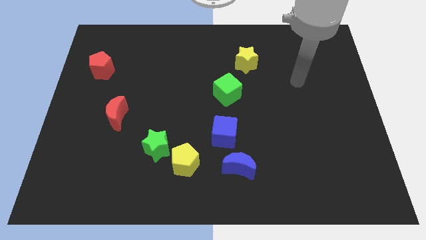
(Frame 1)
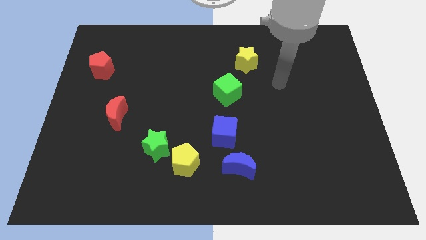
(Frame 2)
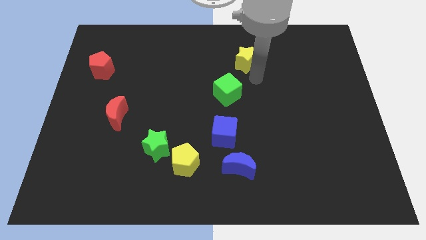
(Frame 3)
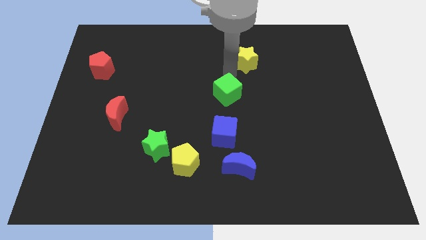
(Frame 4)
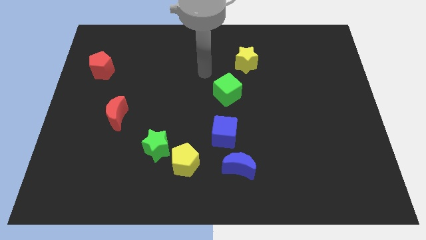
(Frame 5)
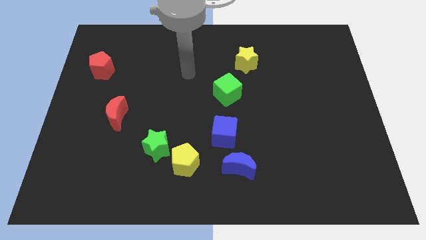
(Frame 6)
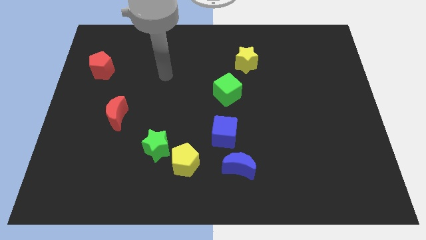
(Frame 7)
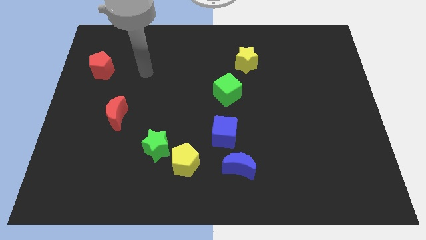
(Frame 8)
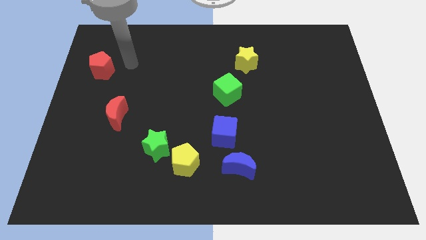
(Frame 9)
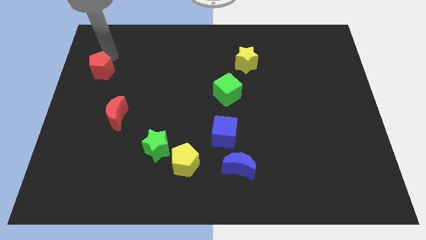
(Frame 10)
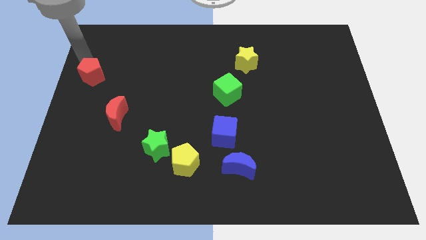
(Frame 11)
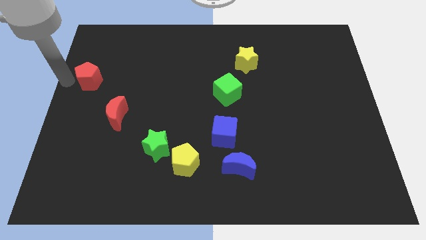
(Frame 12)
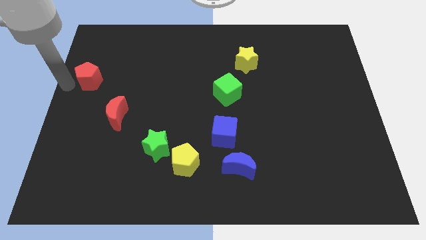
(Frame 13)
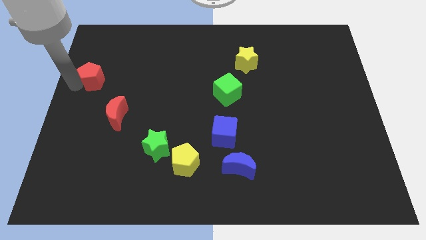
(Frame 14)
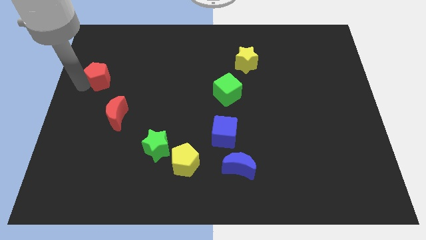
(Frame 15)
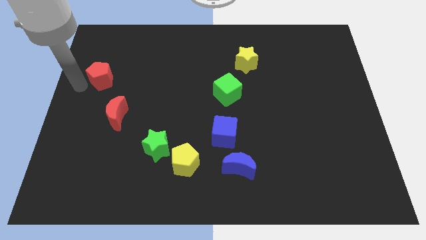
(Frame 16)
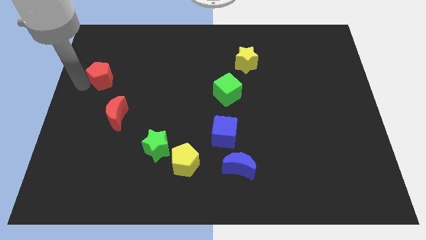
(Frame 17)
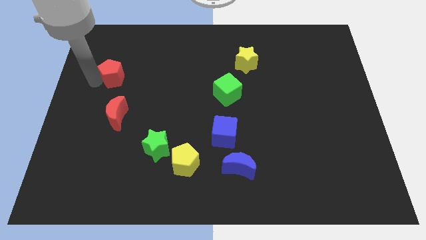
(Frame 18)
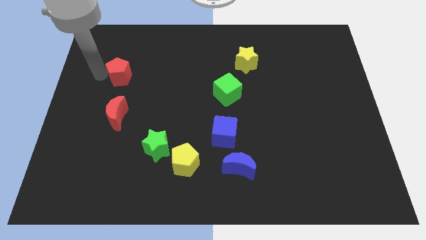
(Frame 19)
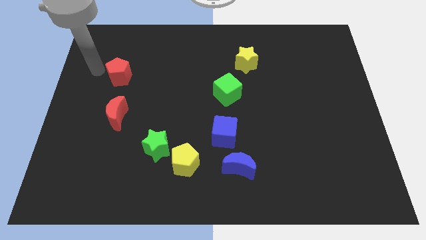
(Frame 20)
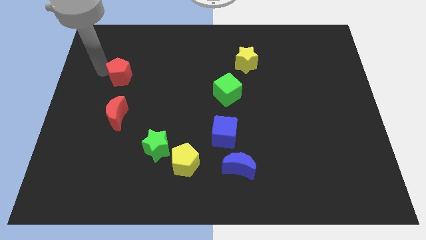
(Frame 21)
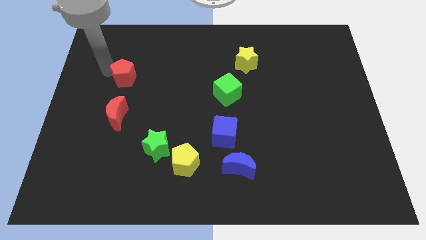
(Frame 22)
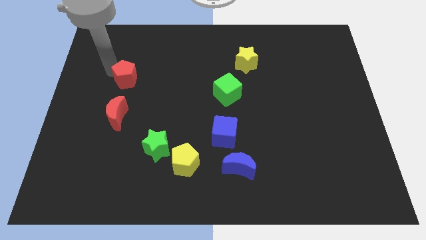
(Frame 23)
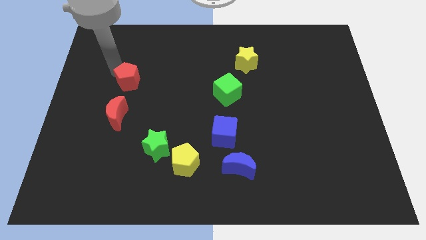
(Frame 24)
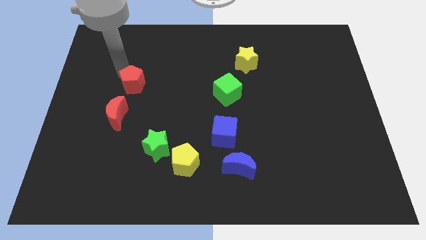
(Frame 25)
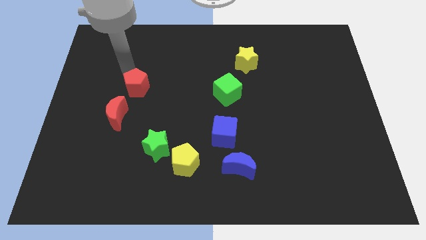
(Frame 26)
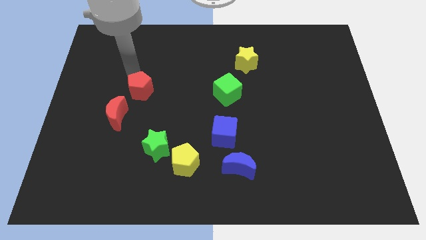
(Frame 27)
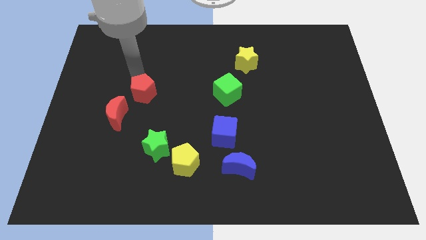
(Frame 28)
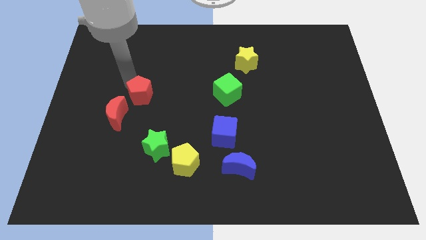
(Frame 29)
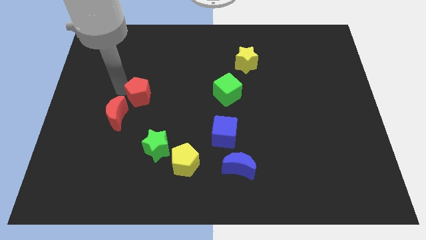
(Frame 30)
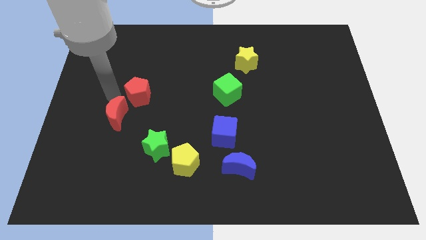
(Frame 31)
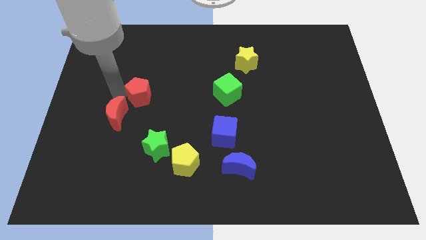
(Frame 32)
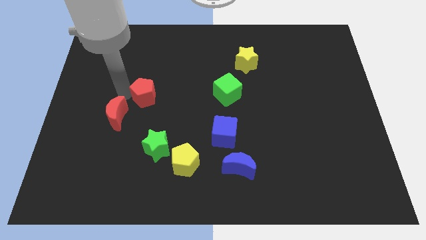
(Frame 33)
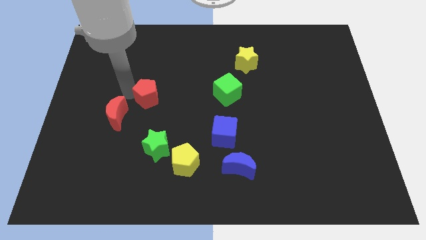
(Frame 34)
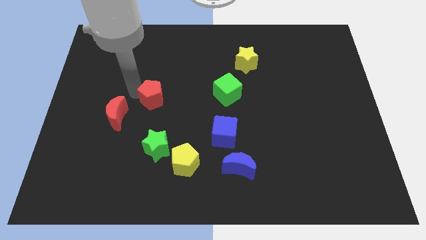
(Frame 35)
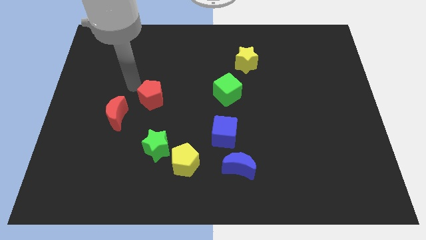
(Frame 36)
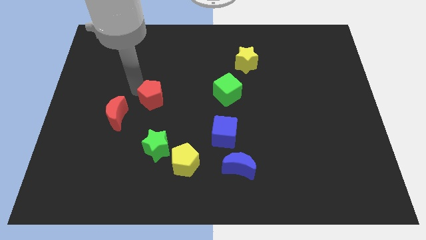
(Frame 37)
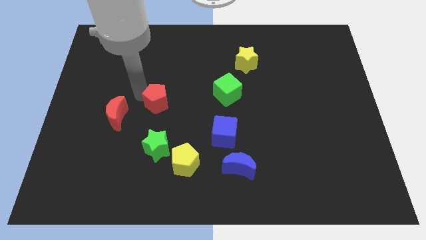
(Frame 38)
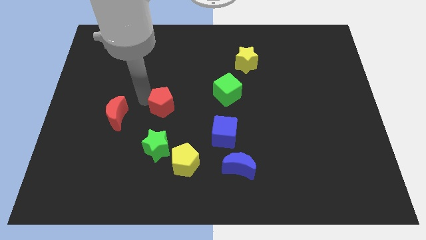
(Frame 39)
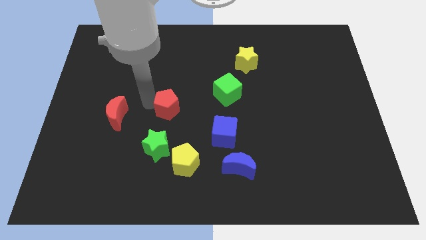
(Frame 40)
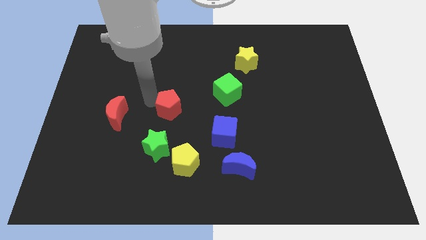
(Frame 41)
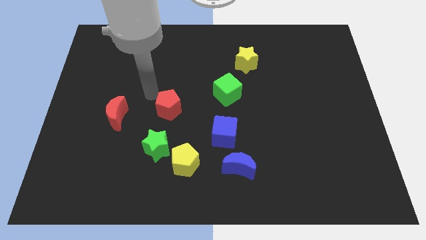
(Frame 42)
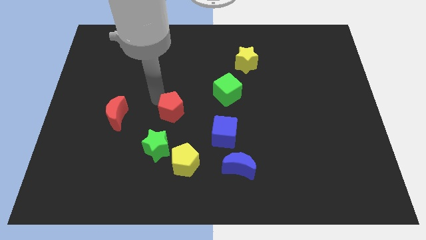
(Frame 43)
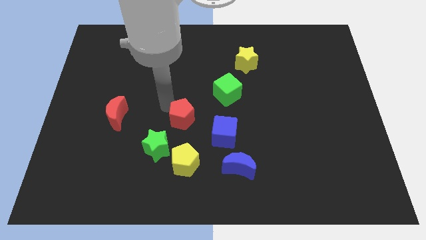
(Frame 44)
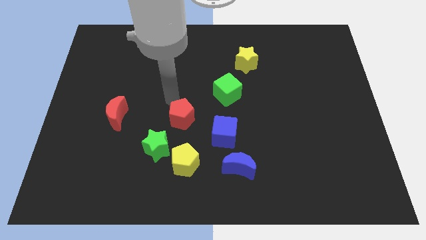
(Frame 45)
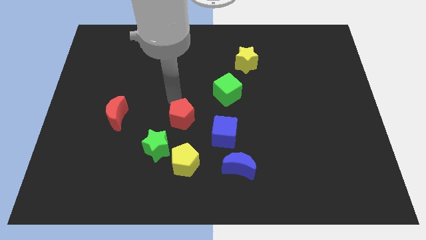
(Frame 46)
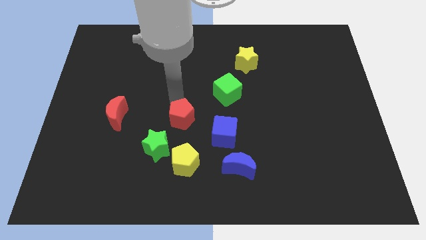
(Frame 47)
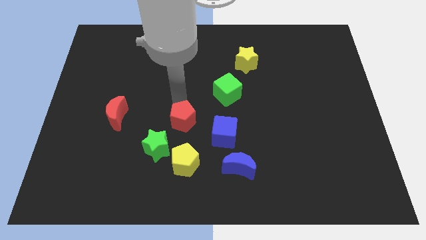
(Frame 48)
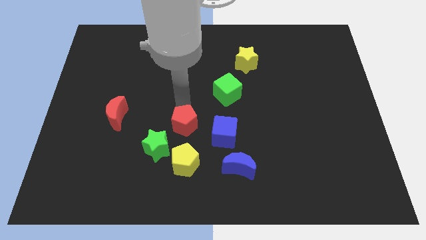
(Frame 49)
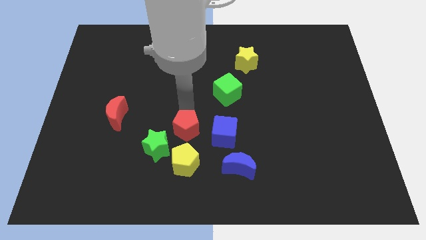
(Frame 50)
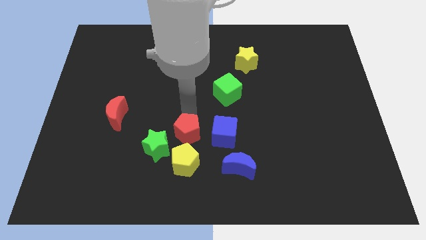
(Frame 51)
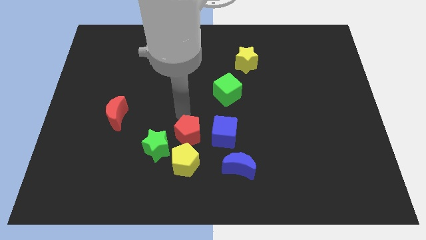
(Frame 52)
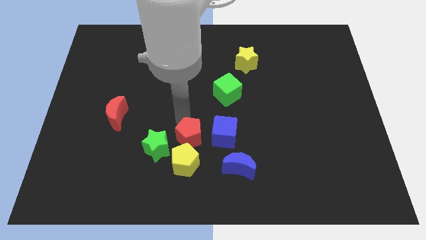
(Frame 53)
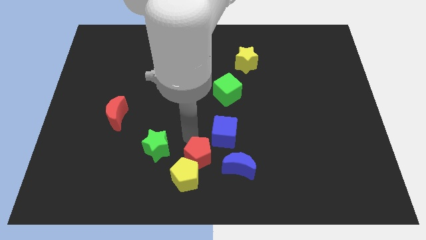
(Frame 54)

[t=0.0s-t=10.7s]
put the red pentagon to the bottom side

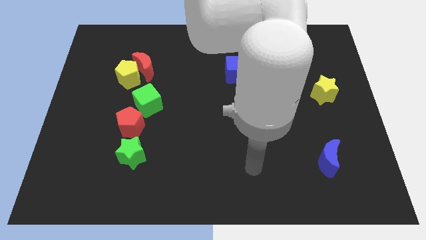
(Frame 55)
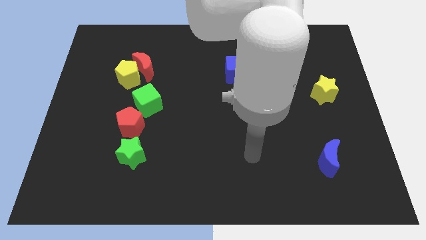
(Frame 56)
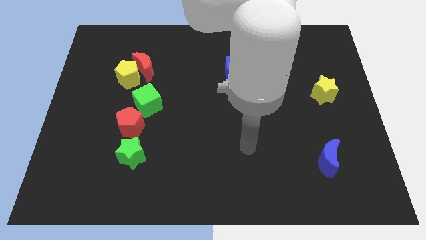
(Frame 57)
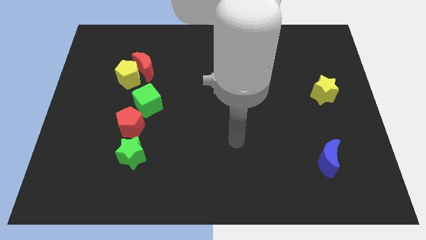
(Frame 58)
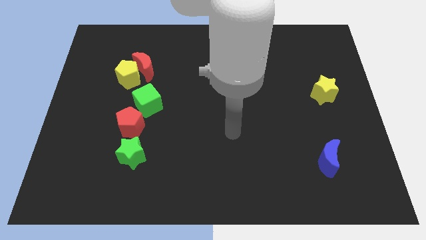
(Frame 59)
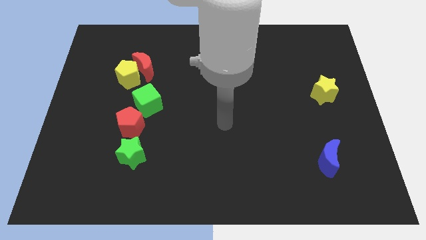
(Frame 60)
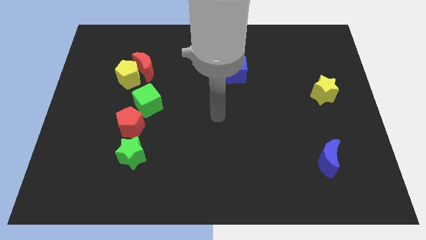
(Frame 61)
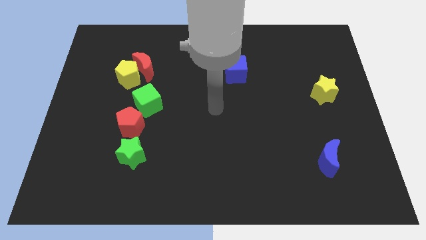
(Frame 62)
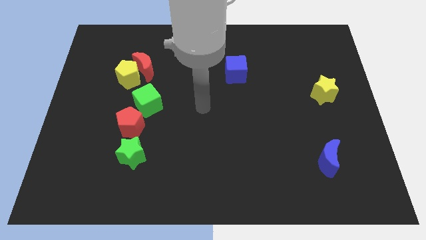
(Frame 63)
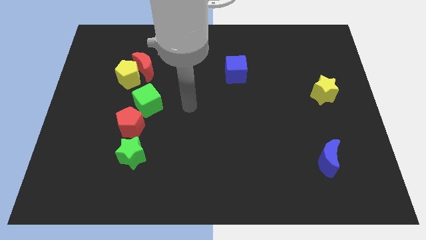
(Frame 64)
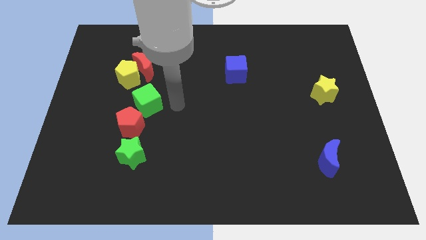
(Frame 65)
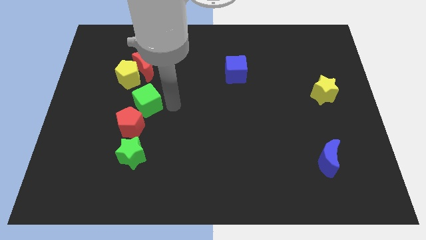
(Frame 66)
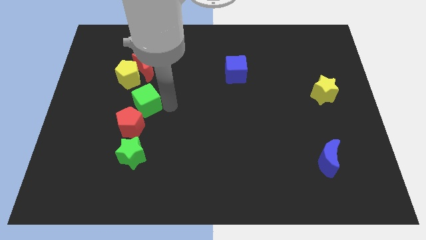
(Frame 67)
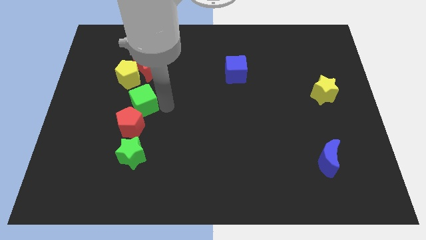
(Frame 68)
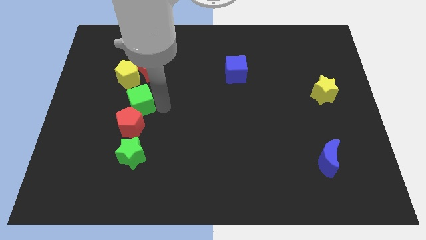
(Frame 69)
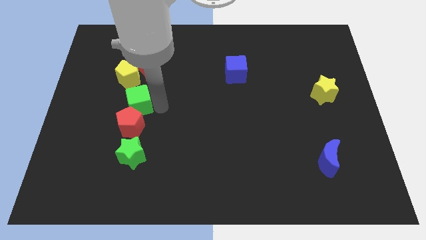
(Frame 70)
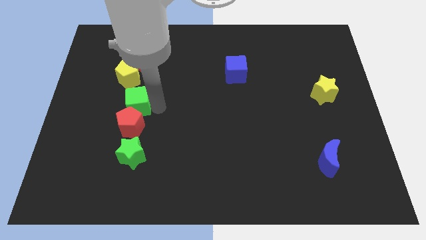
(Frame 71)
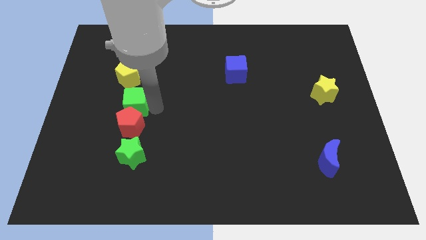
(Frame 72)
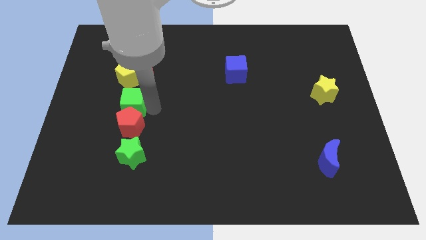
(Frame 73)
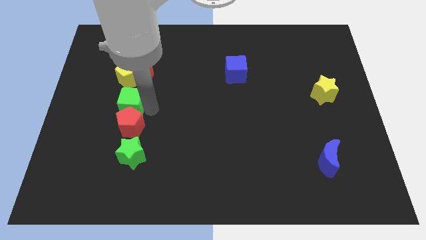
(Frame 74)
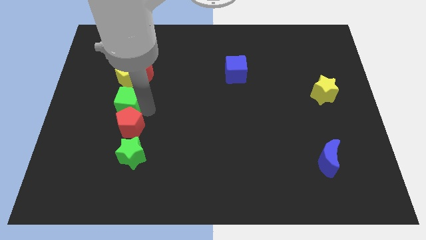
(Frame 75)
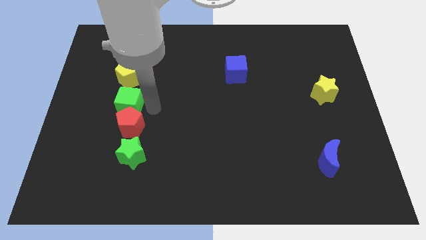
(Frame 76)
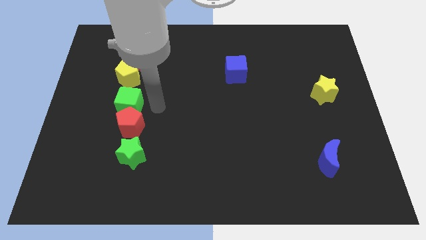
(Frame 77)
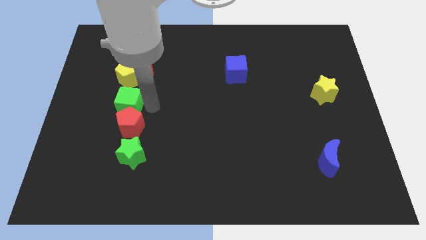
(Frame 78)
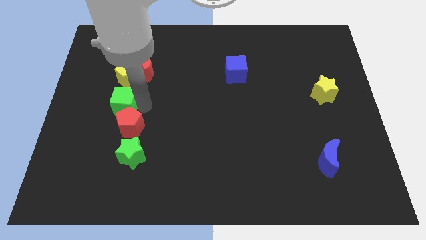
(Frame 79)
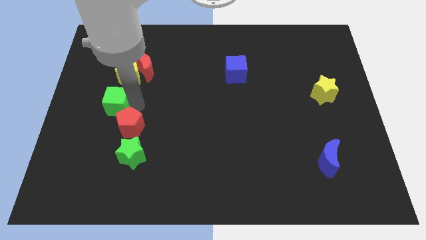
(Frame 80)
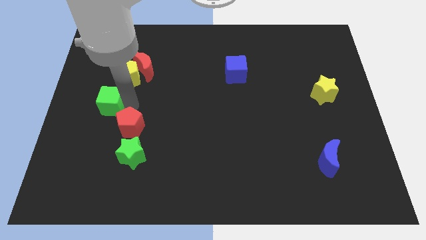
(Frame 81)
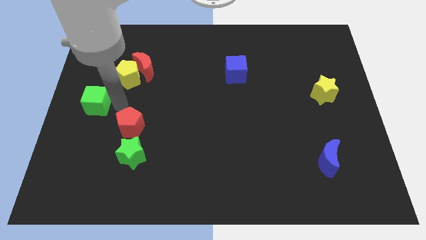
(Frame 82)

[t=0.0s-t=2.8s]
put the green cube to the center left
